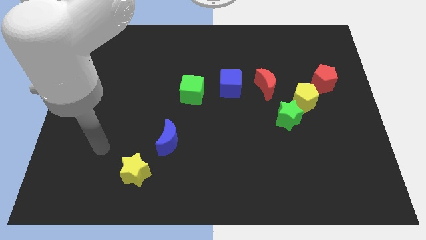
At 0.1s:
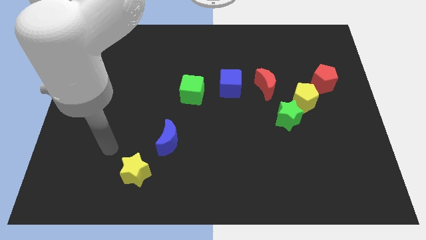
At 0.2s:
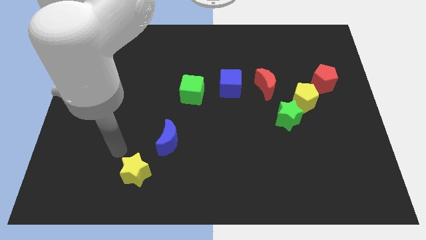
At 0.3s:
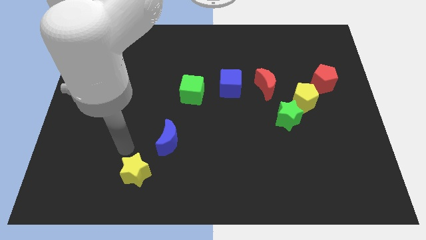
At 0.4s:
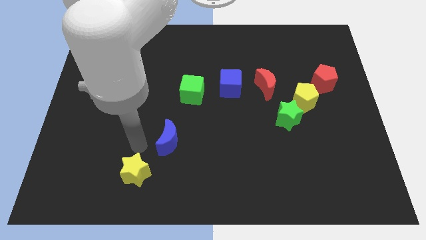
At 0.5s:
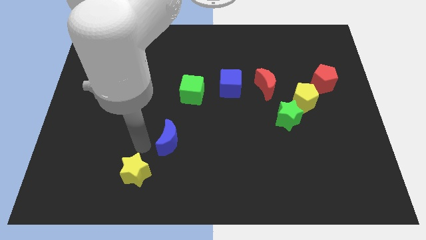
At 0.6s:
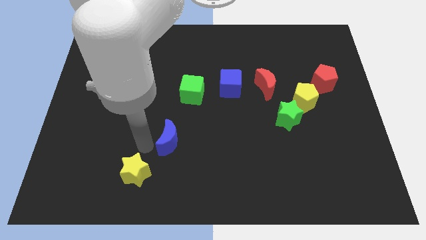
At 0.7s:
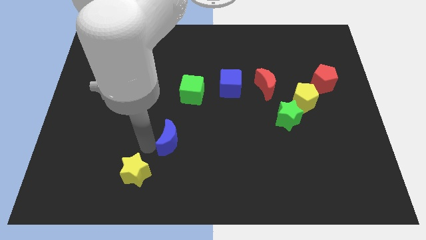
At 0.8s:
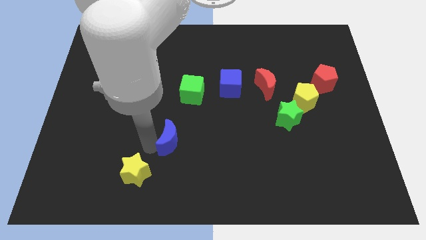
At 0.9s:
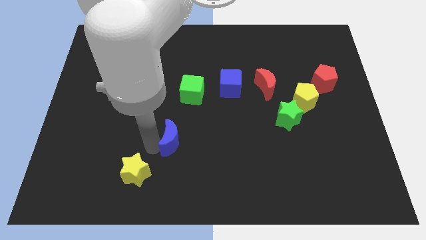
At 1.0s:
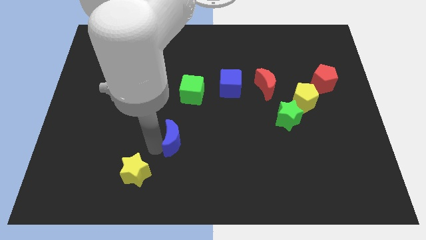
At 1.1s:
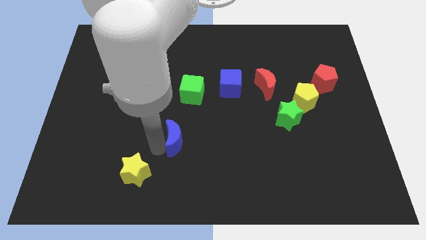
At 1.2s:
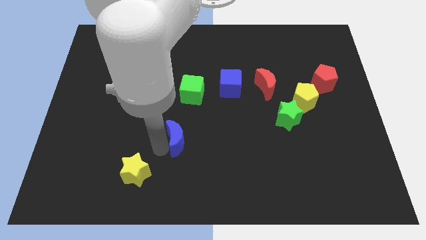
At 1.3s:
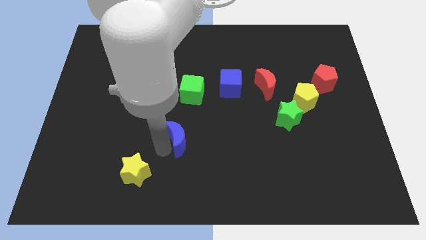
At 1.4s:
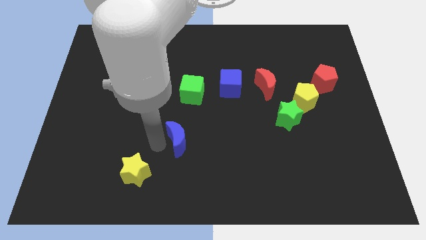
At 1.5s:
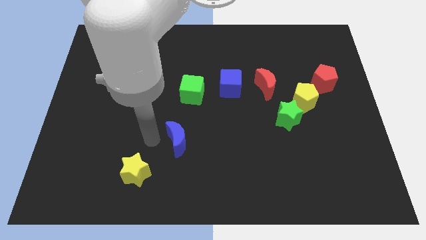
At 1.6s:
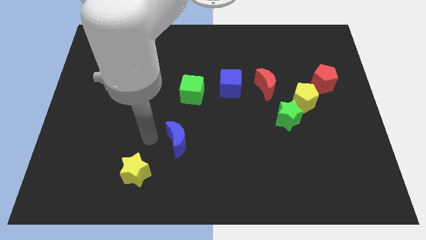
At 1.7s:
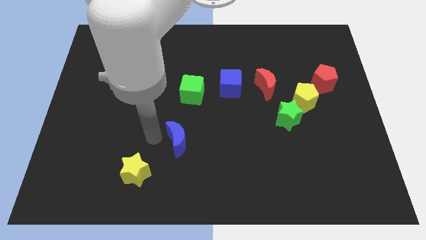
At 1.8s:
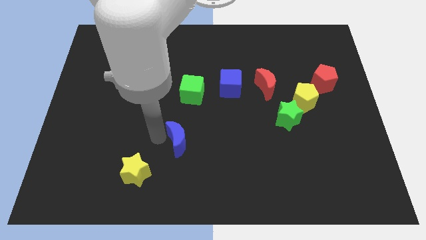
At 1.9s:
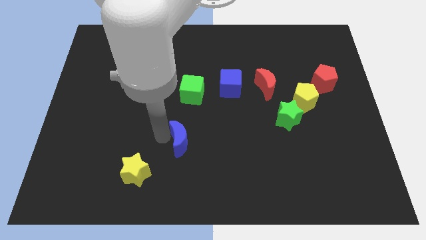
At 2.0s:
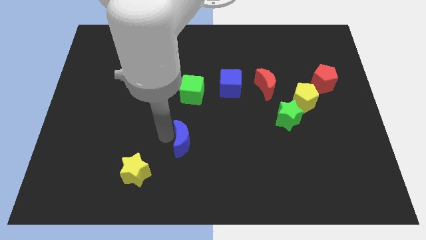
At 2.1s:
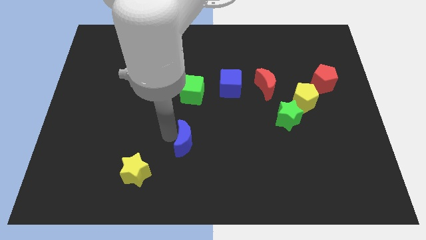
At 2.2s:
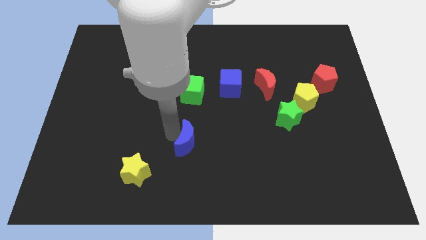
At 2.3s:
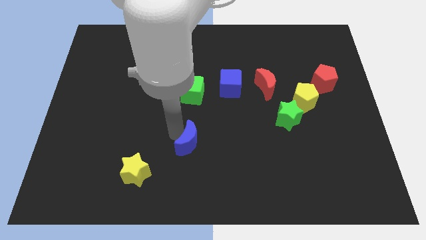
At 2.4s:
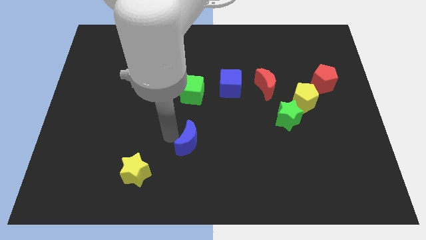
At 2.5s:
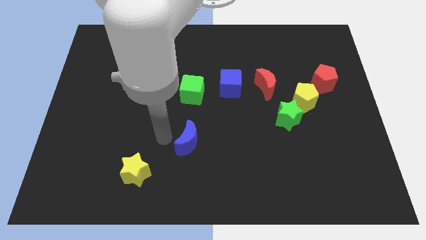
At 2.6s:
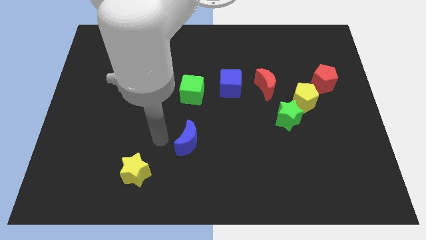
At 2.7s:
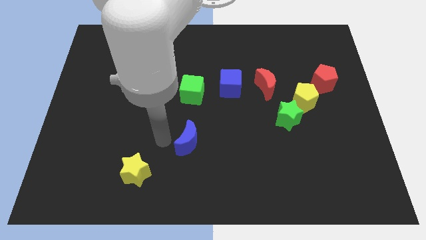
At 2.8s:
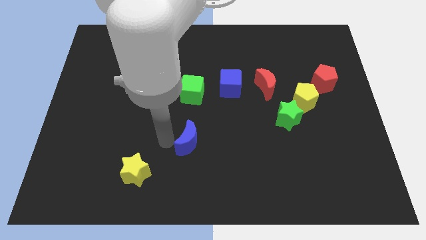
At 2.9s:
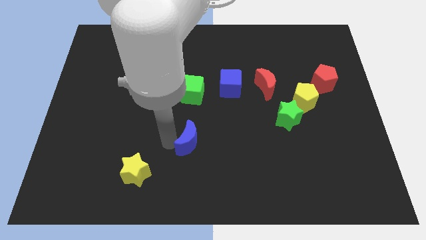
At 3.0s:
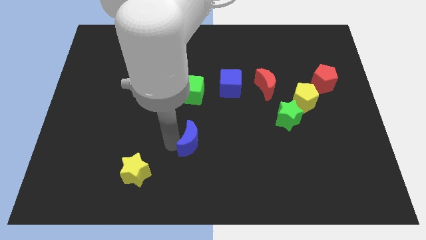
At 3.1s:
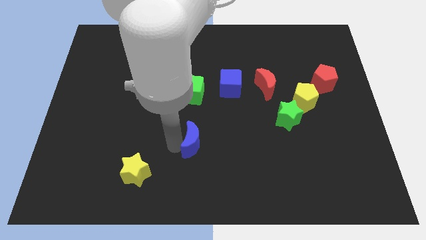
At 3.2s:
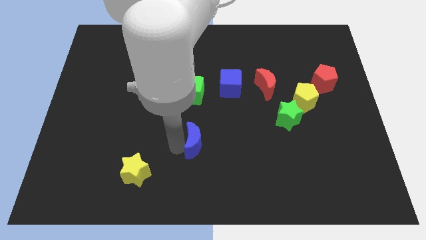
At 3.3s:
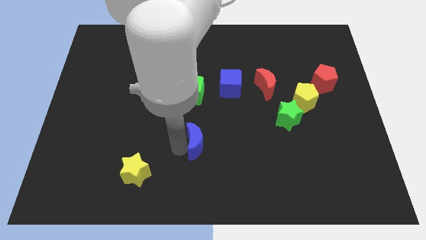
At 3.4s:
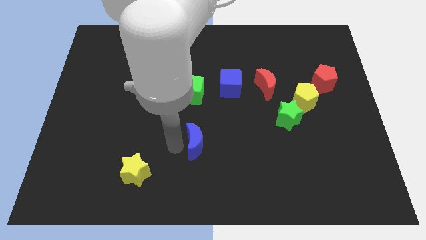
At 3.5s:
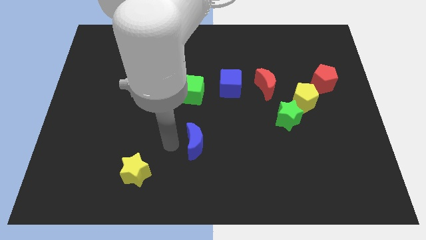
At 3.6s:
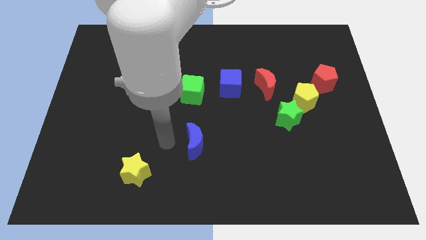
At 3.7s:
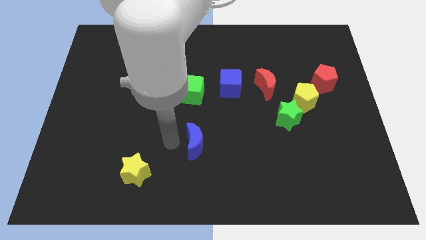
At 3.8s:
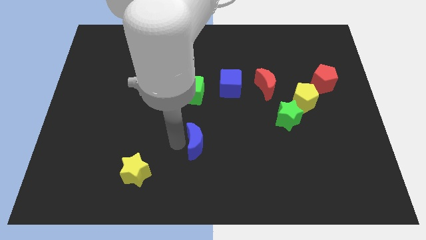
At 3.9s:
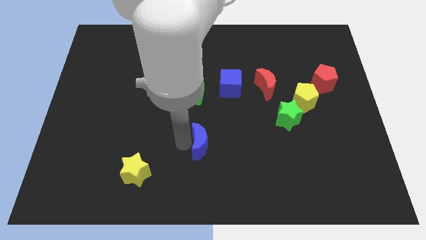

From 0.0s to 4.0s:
move the blue moon somewhat to the right

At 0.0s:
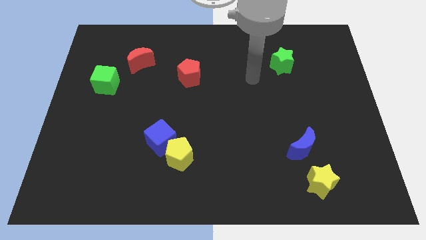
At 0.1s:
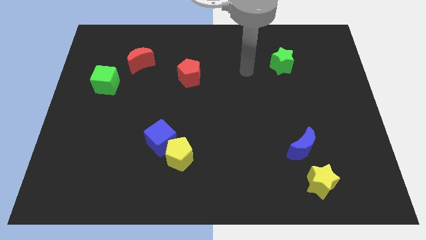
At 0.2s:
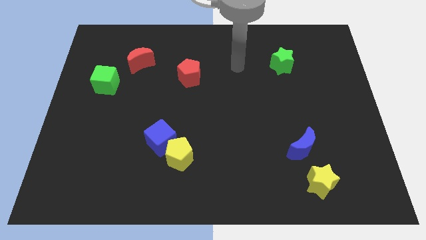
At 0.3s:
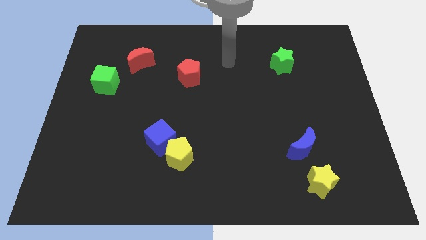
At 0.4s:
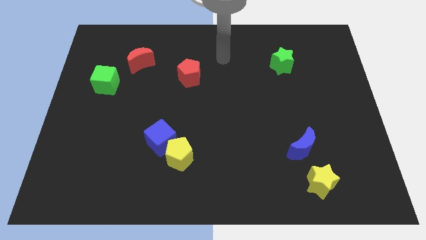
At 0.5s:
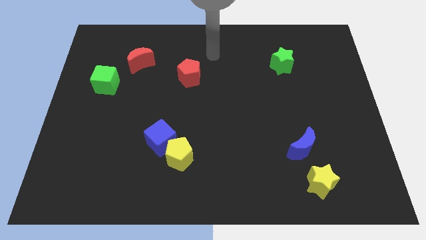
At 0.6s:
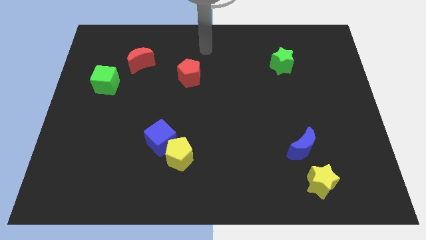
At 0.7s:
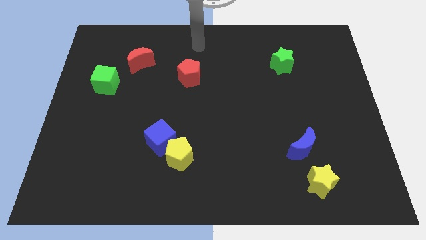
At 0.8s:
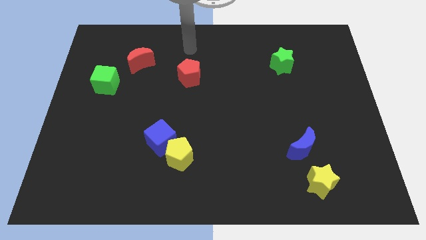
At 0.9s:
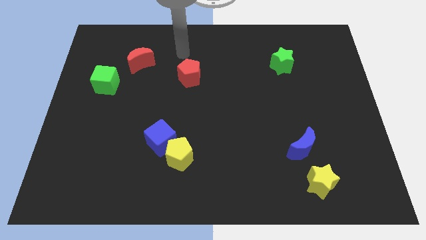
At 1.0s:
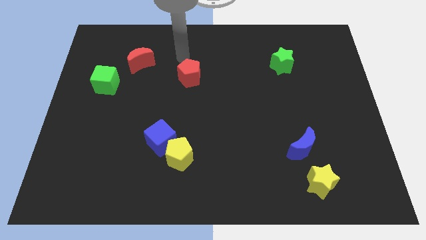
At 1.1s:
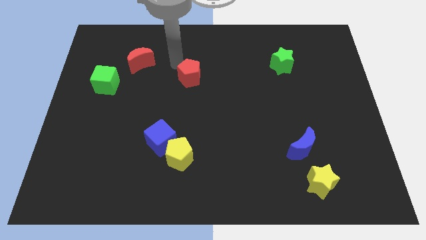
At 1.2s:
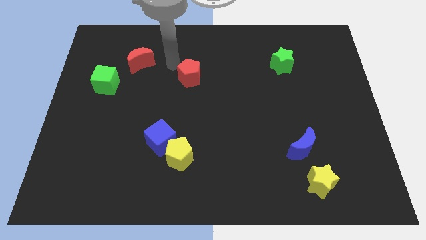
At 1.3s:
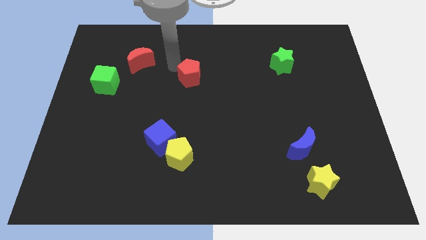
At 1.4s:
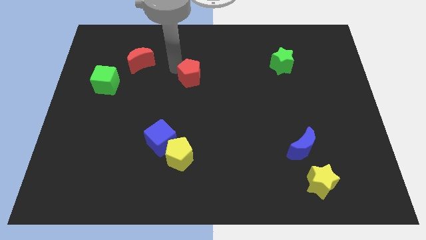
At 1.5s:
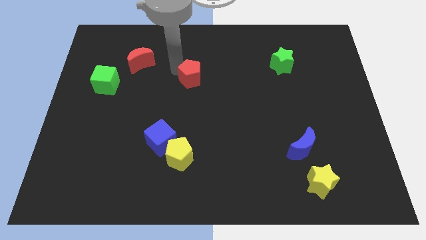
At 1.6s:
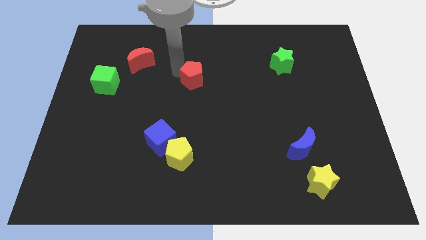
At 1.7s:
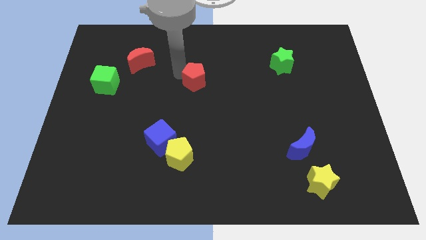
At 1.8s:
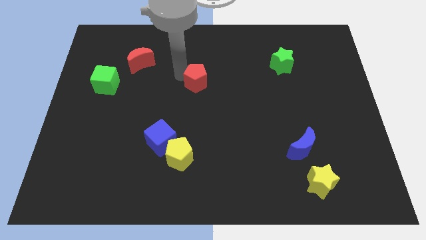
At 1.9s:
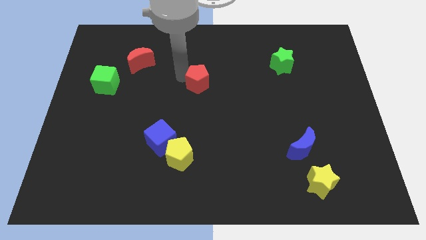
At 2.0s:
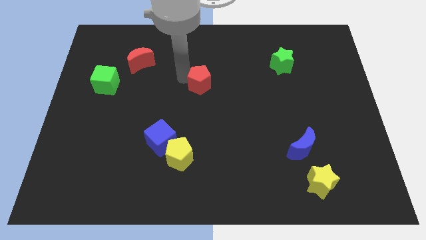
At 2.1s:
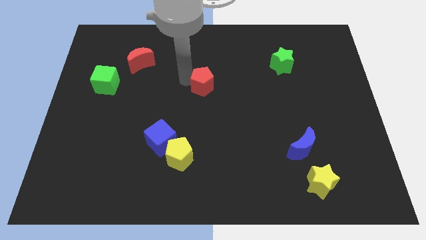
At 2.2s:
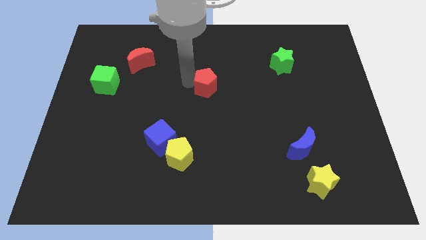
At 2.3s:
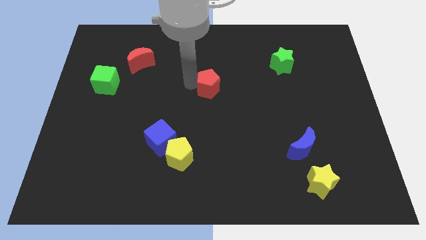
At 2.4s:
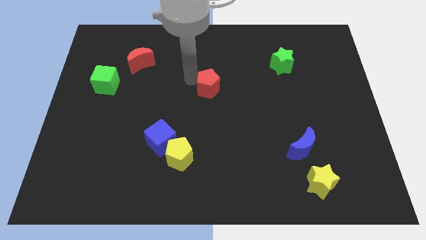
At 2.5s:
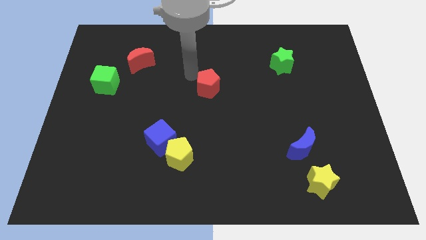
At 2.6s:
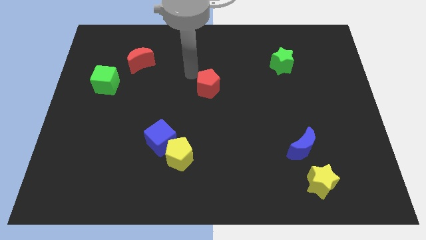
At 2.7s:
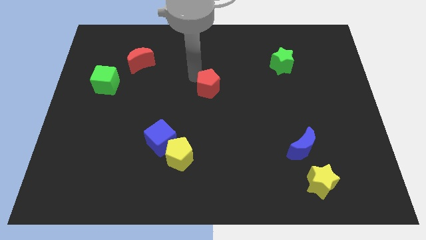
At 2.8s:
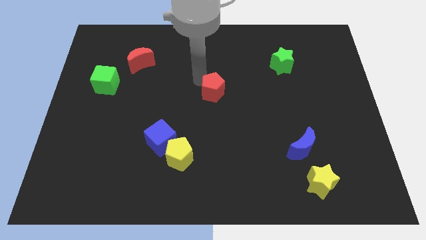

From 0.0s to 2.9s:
move the red pentagon somewhat diagonally down and to the right

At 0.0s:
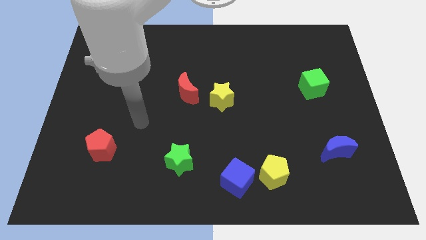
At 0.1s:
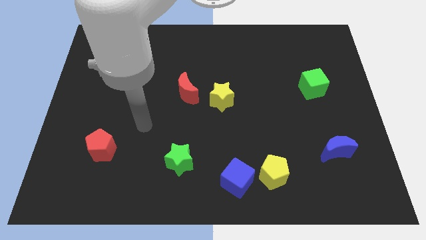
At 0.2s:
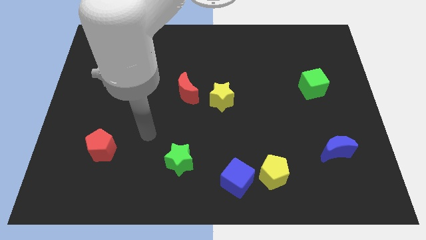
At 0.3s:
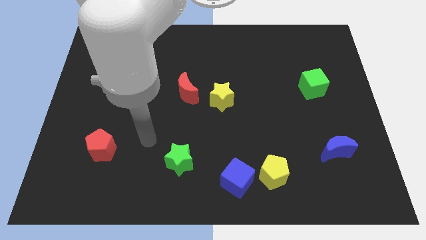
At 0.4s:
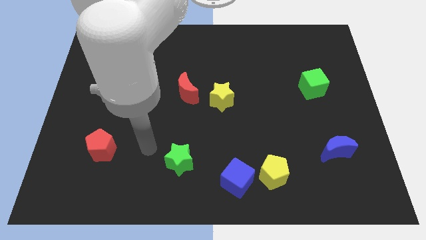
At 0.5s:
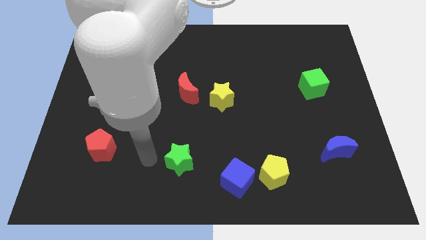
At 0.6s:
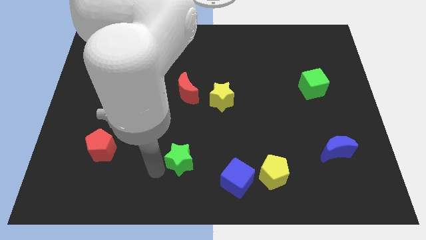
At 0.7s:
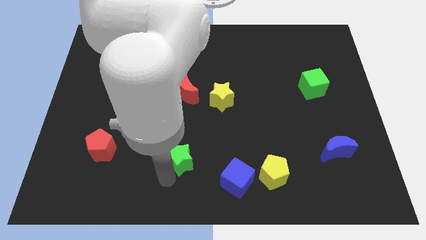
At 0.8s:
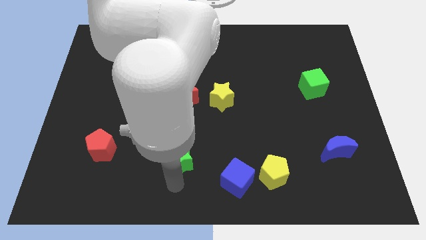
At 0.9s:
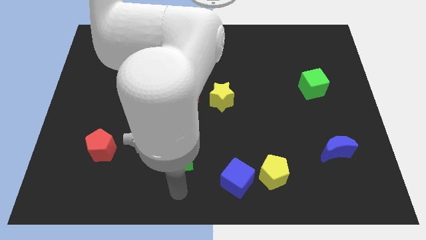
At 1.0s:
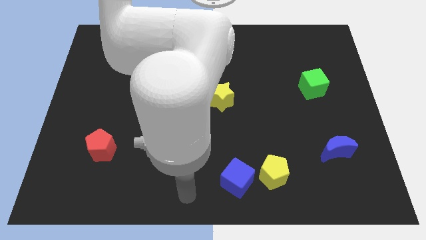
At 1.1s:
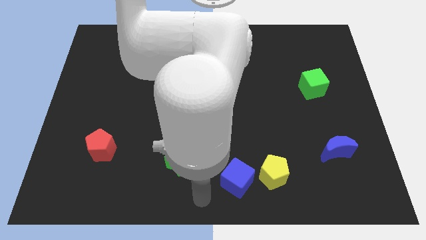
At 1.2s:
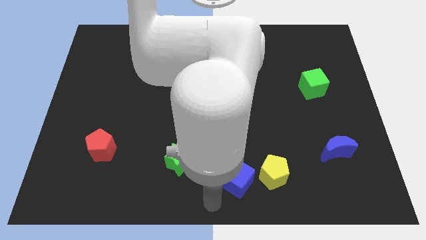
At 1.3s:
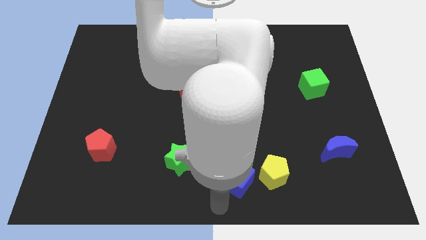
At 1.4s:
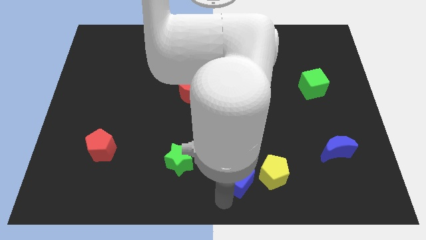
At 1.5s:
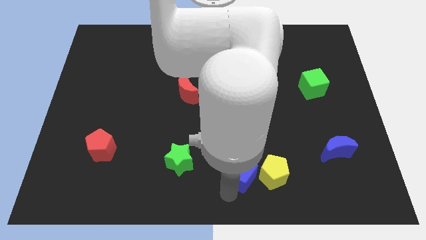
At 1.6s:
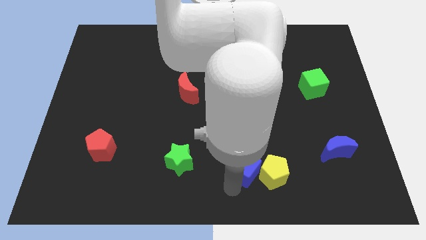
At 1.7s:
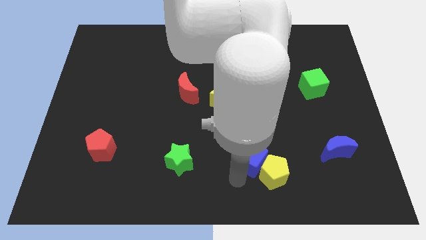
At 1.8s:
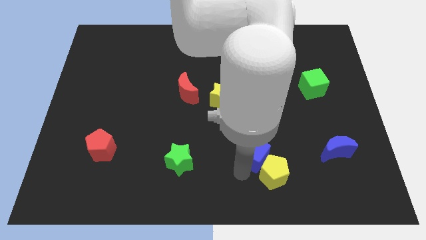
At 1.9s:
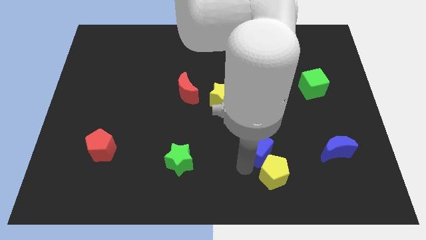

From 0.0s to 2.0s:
slide the blue cube up and right diagonally somewhat
